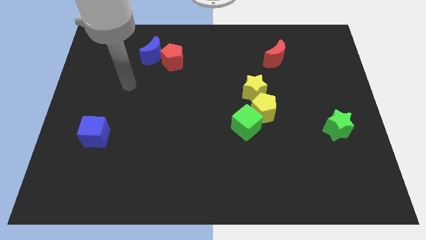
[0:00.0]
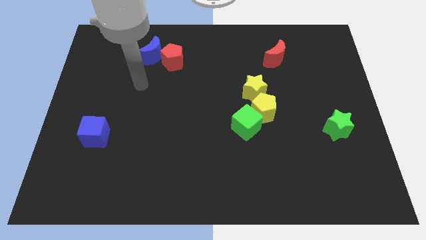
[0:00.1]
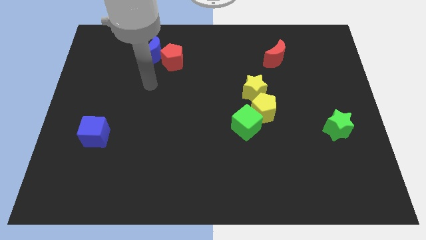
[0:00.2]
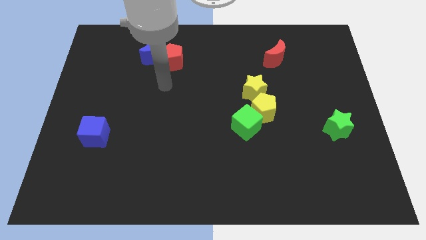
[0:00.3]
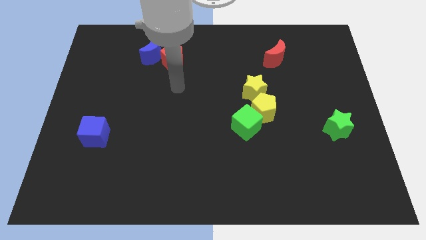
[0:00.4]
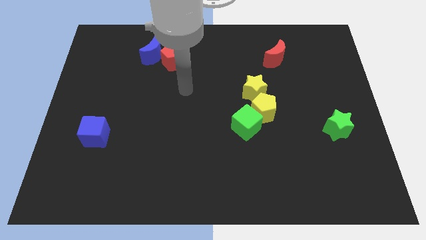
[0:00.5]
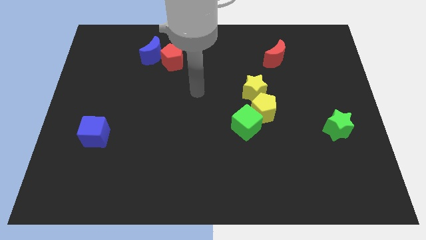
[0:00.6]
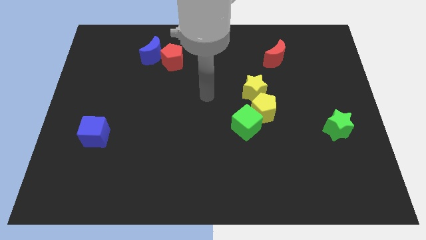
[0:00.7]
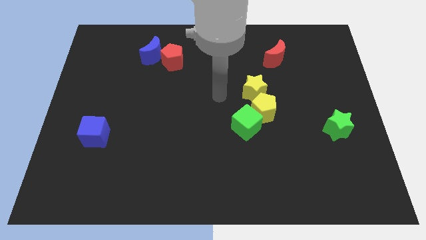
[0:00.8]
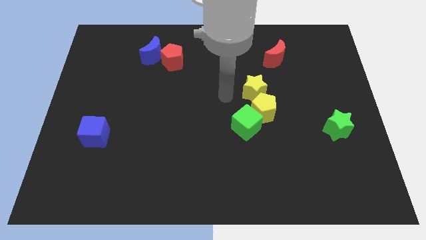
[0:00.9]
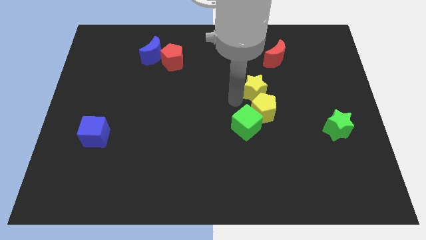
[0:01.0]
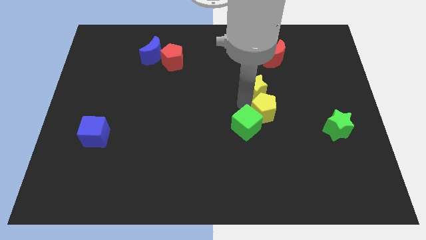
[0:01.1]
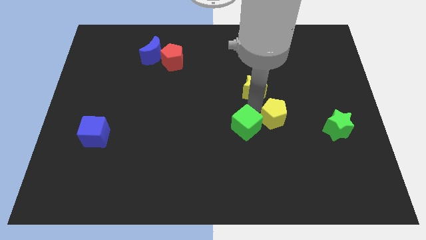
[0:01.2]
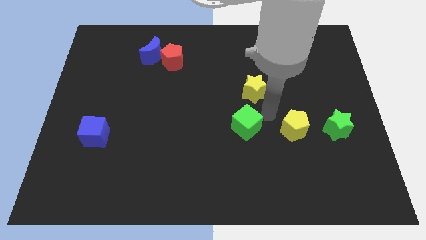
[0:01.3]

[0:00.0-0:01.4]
pull the green cube apart from the yellow pentagon

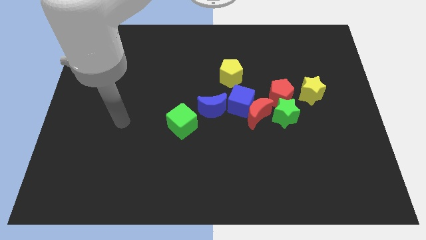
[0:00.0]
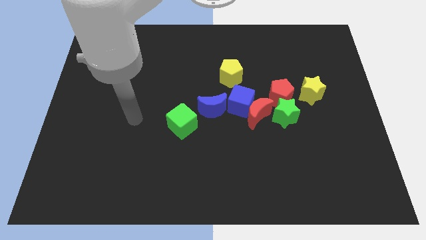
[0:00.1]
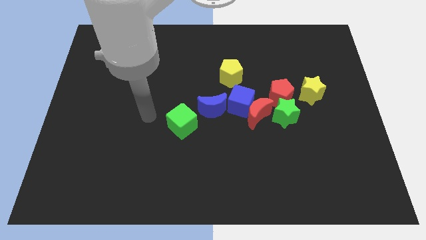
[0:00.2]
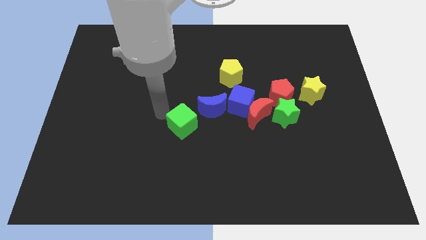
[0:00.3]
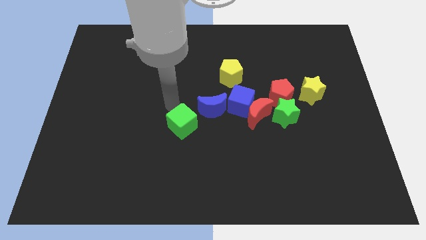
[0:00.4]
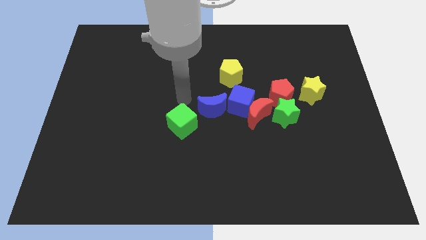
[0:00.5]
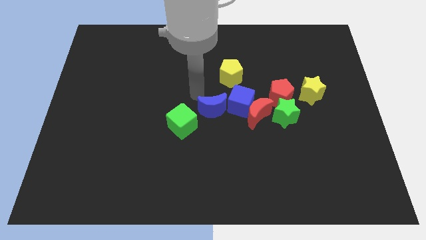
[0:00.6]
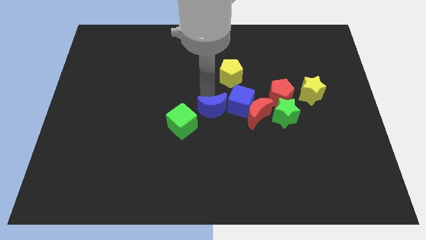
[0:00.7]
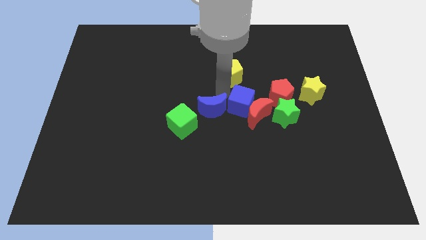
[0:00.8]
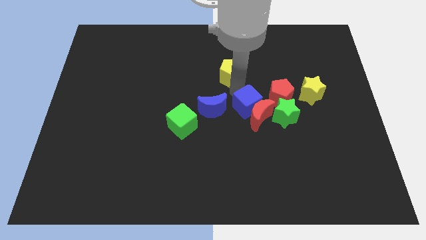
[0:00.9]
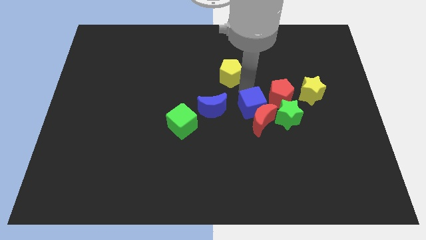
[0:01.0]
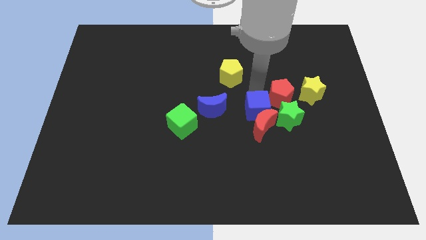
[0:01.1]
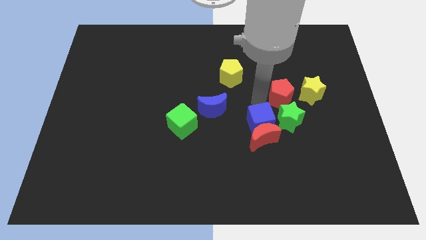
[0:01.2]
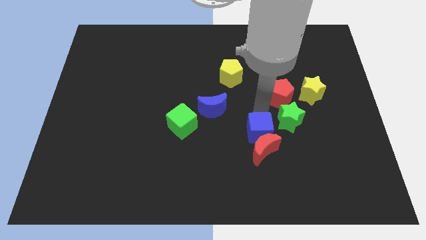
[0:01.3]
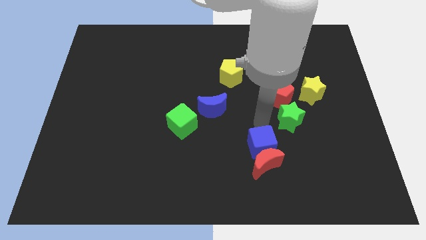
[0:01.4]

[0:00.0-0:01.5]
pull the red moon apart from the group

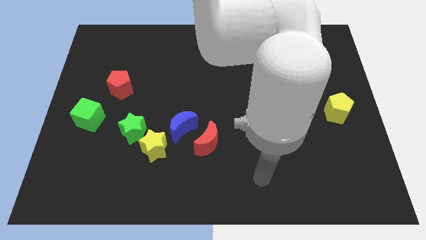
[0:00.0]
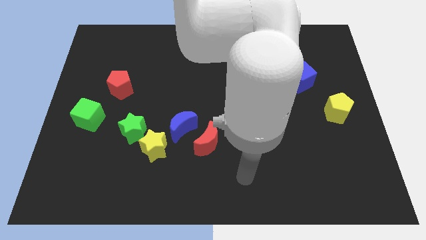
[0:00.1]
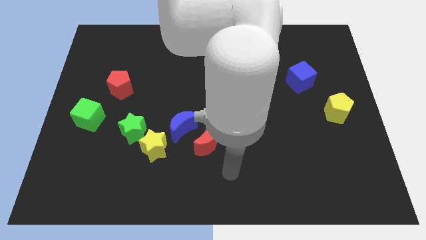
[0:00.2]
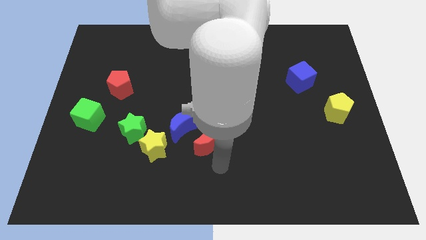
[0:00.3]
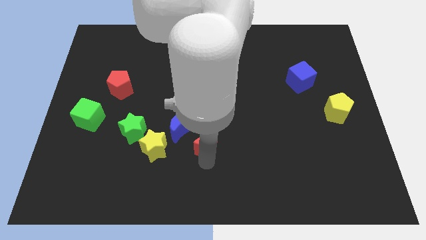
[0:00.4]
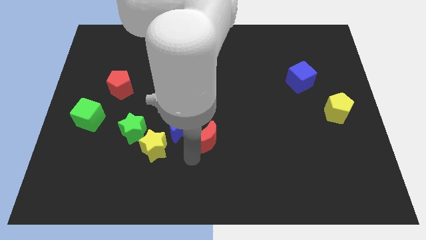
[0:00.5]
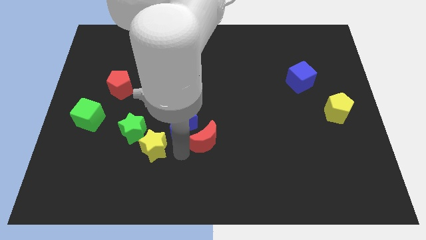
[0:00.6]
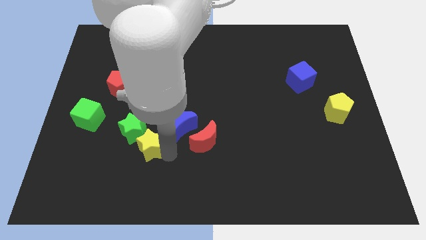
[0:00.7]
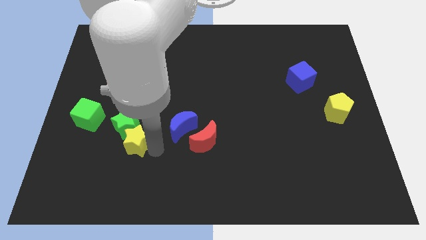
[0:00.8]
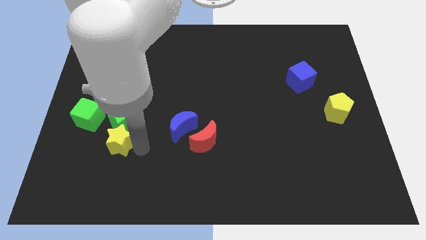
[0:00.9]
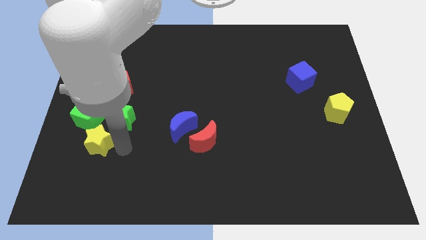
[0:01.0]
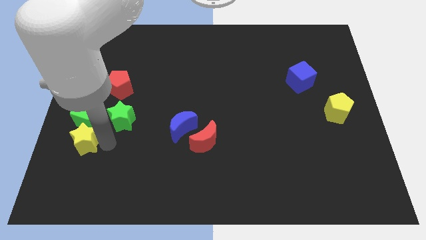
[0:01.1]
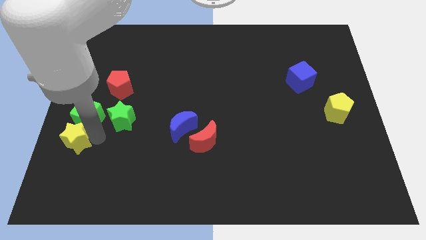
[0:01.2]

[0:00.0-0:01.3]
move the green star away from the yellow star

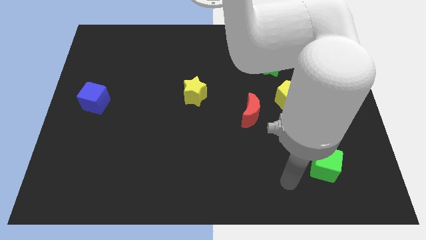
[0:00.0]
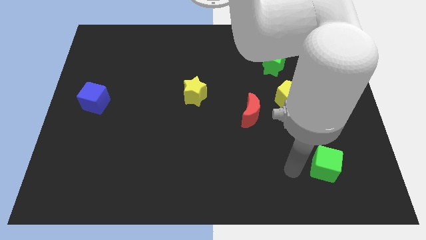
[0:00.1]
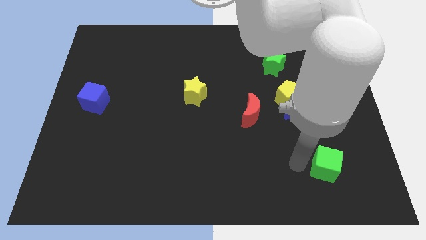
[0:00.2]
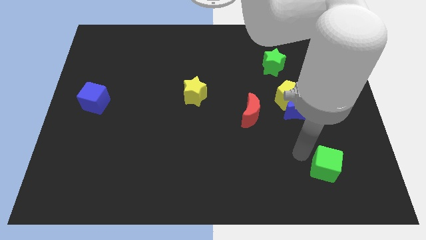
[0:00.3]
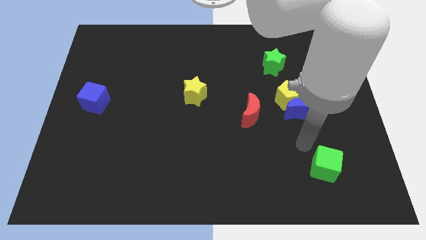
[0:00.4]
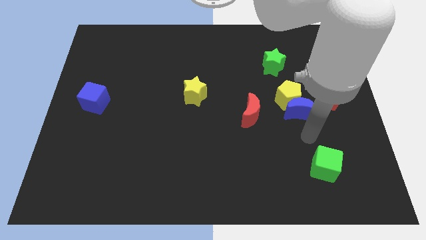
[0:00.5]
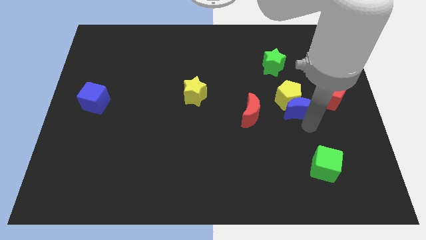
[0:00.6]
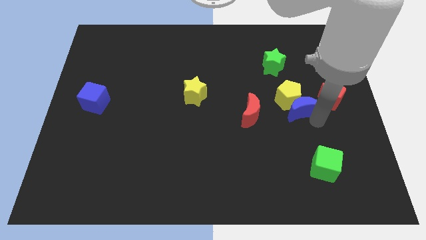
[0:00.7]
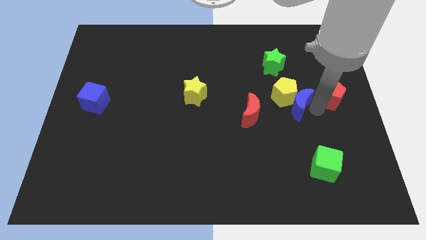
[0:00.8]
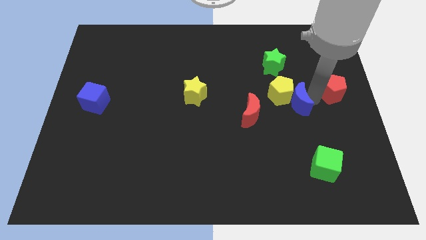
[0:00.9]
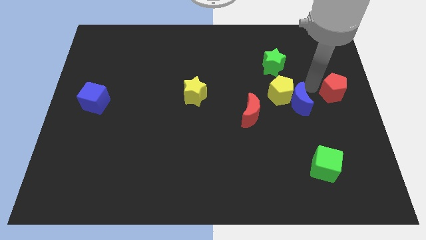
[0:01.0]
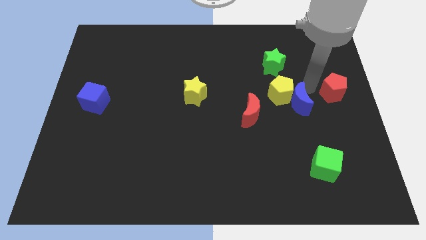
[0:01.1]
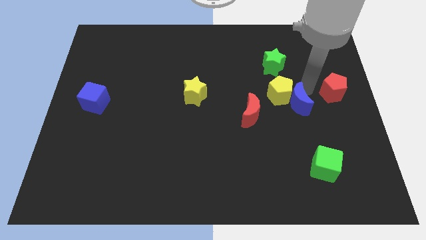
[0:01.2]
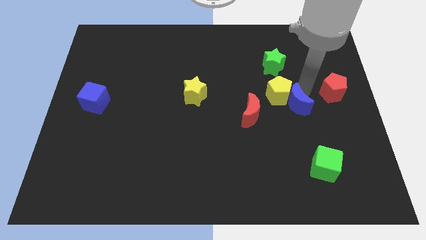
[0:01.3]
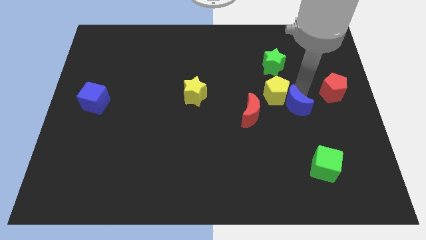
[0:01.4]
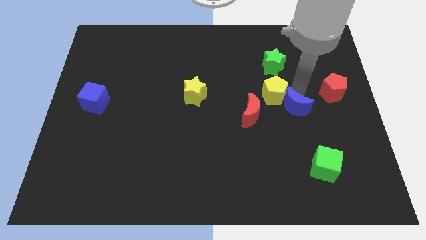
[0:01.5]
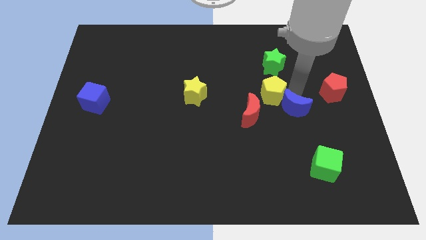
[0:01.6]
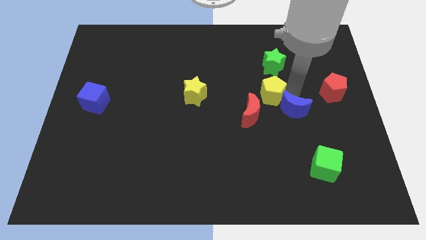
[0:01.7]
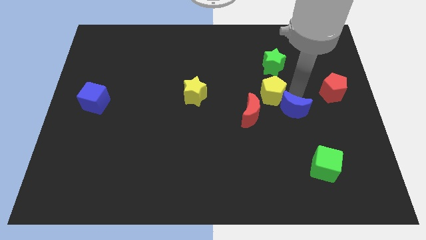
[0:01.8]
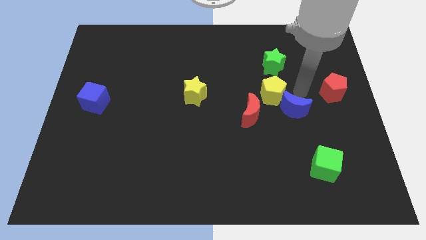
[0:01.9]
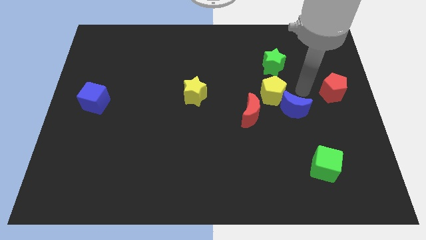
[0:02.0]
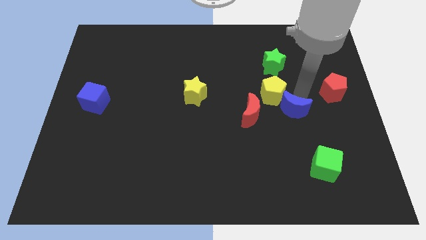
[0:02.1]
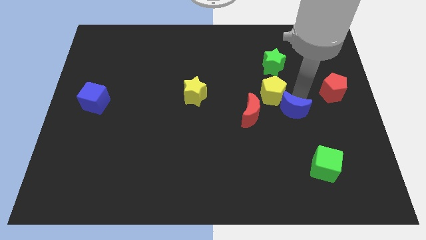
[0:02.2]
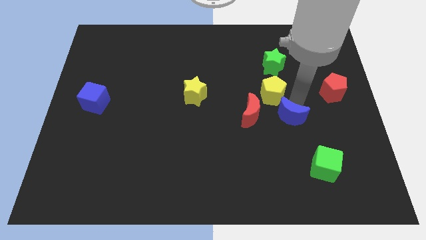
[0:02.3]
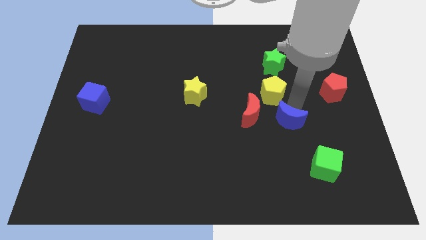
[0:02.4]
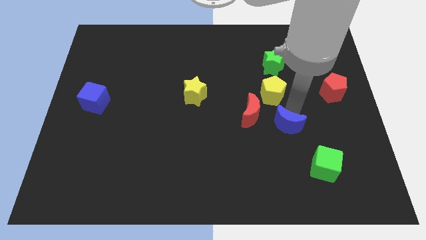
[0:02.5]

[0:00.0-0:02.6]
move the blue moon away from the yellow pentagon and red pentagon

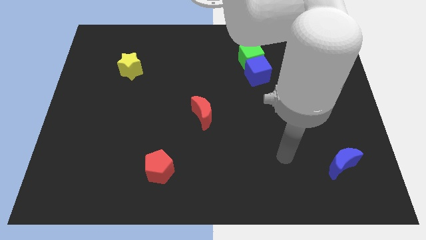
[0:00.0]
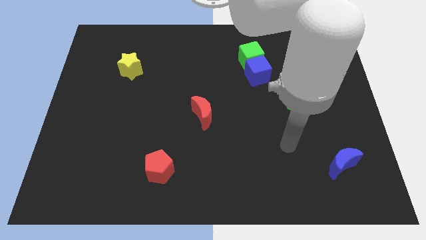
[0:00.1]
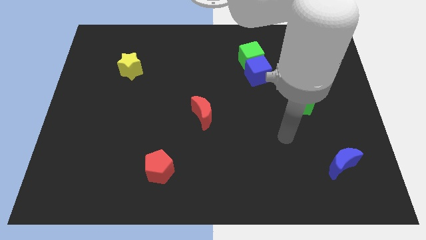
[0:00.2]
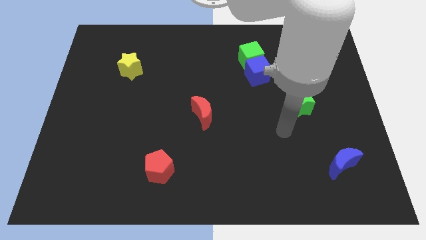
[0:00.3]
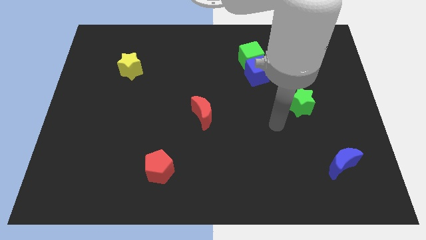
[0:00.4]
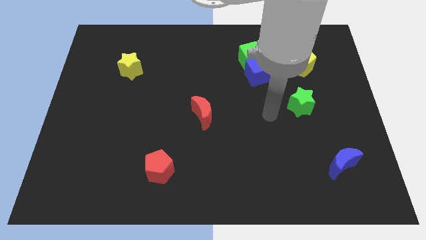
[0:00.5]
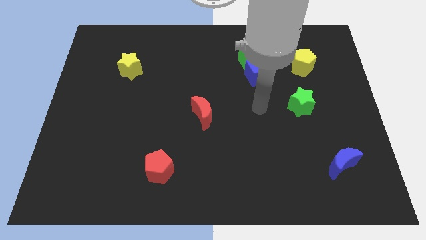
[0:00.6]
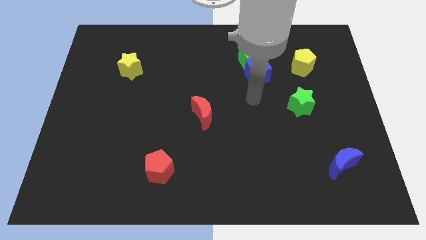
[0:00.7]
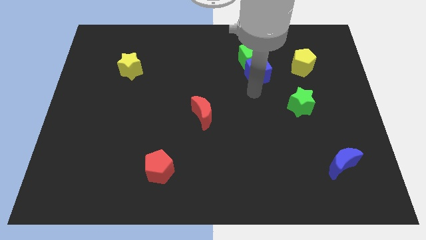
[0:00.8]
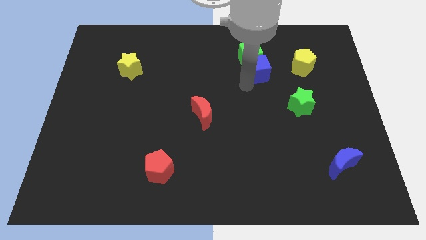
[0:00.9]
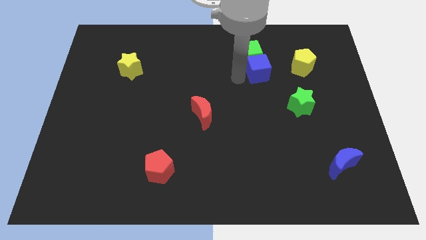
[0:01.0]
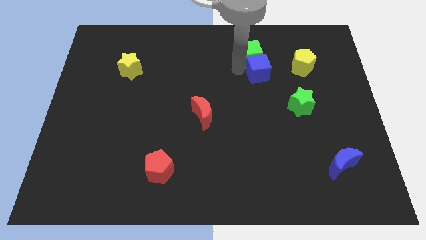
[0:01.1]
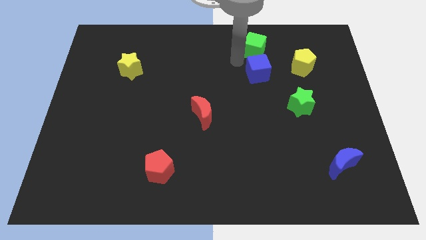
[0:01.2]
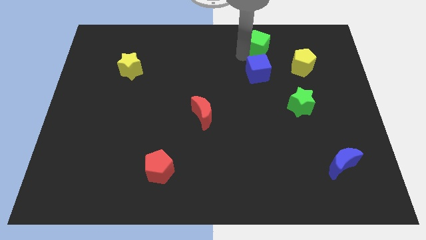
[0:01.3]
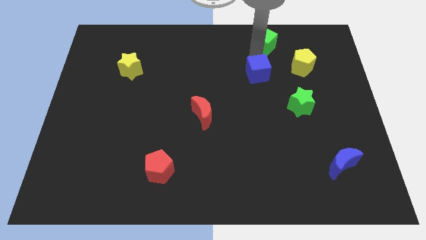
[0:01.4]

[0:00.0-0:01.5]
separate the blue cube from the green cube

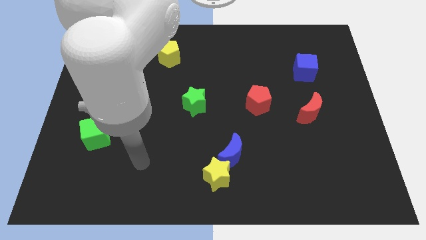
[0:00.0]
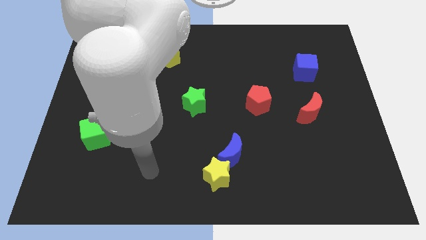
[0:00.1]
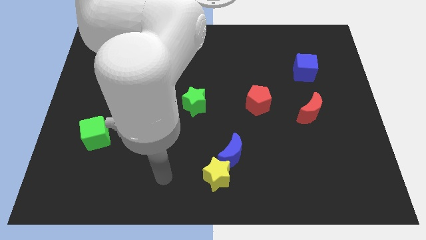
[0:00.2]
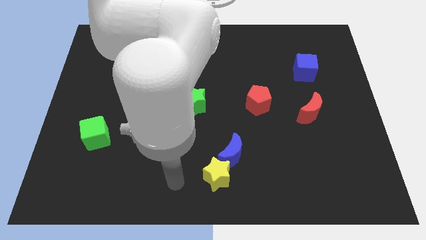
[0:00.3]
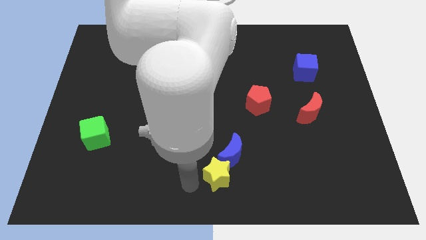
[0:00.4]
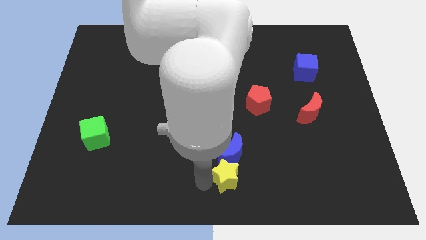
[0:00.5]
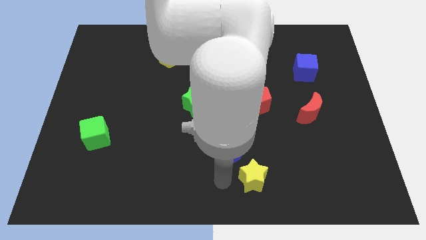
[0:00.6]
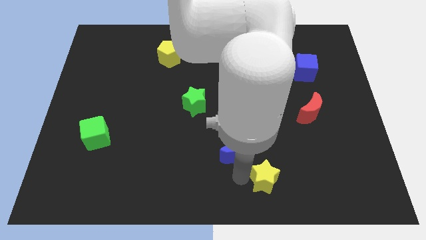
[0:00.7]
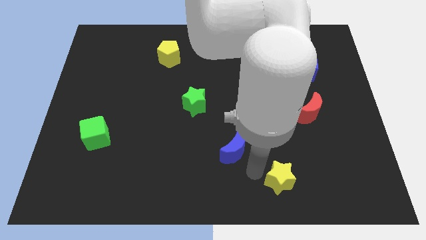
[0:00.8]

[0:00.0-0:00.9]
separate the blue moon from the yellow star
